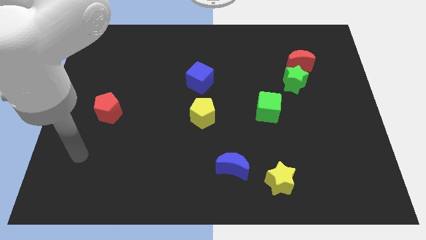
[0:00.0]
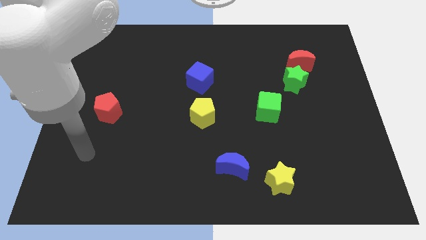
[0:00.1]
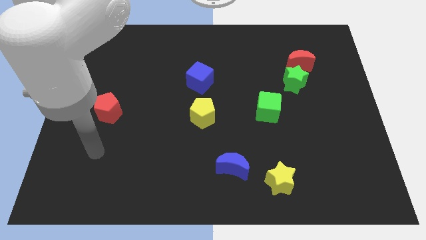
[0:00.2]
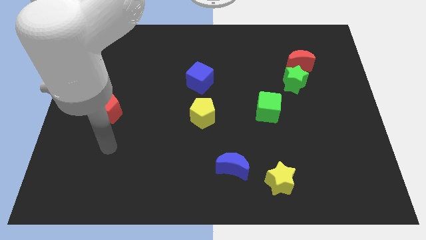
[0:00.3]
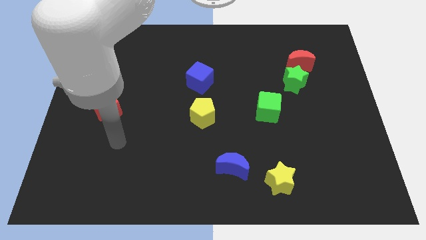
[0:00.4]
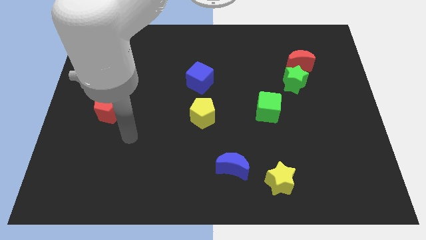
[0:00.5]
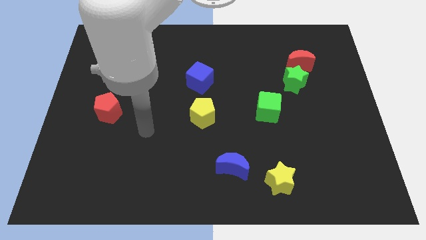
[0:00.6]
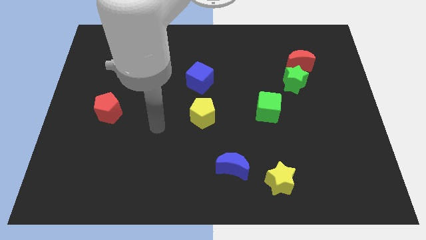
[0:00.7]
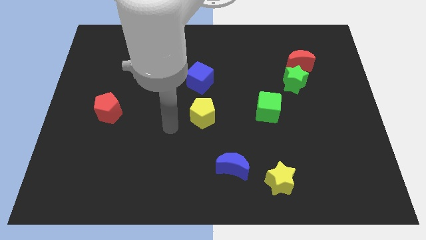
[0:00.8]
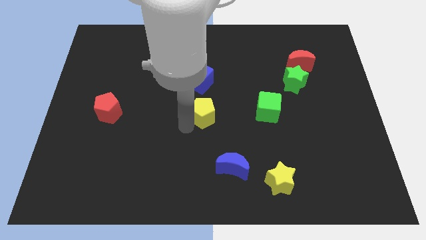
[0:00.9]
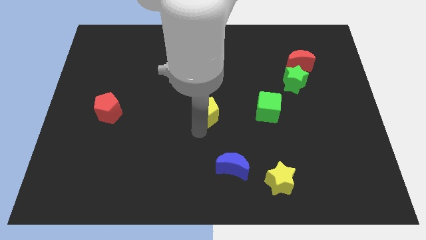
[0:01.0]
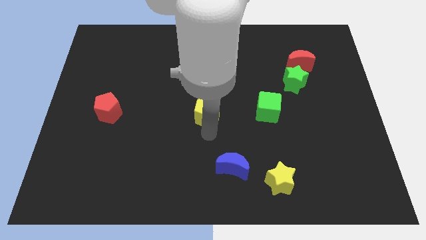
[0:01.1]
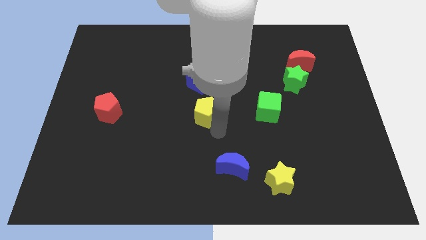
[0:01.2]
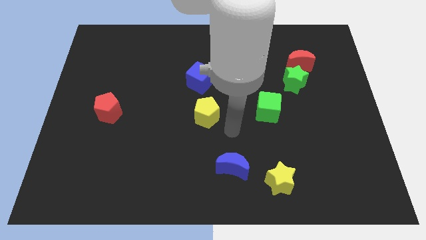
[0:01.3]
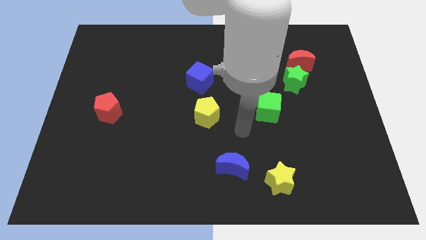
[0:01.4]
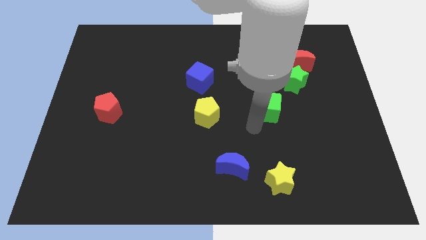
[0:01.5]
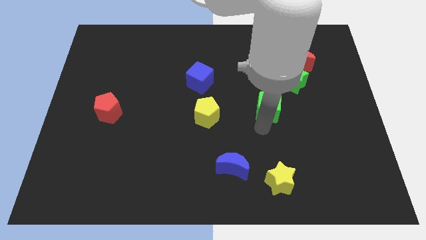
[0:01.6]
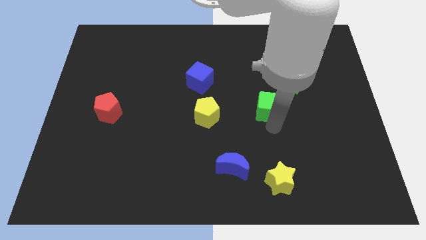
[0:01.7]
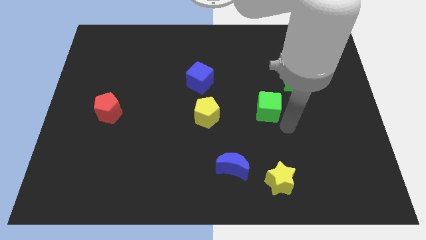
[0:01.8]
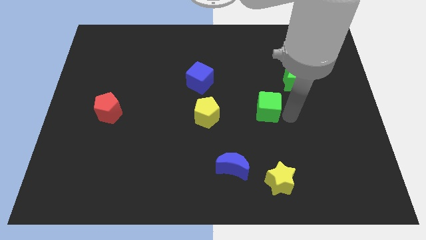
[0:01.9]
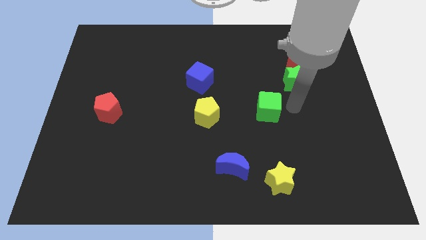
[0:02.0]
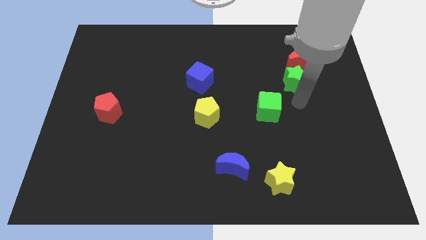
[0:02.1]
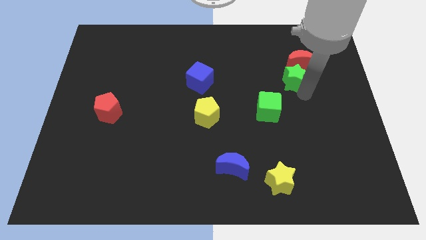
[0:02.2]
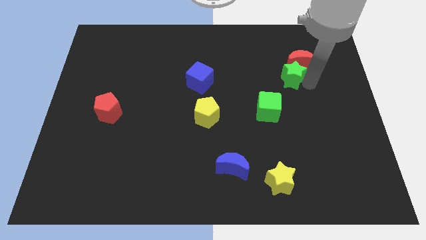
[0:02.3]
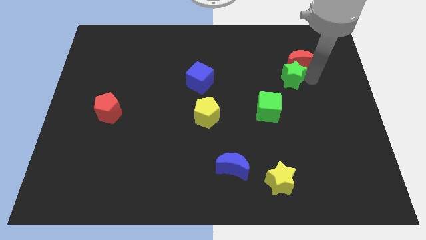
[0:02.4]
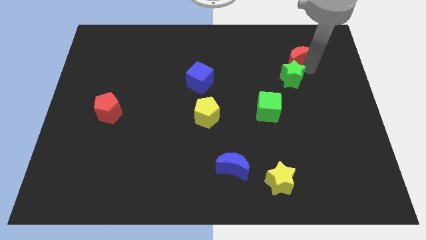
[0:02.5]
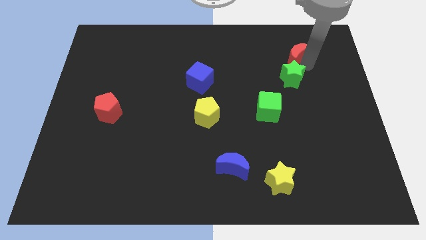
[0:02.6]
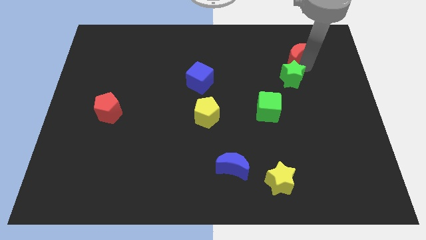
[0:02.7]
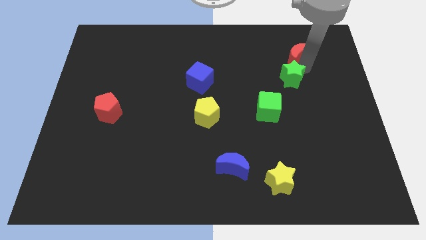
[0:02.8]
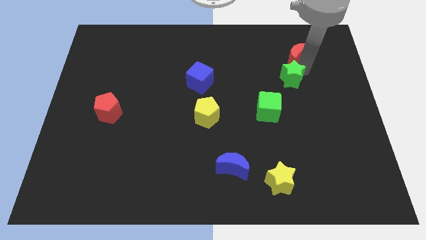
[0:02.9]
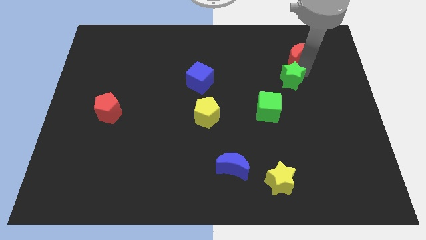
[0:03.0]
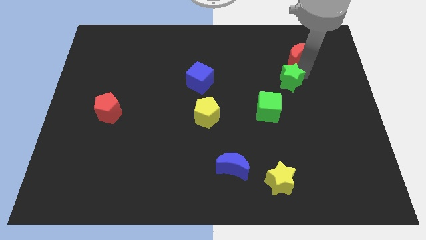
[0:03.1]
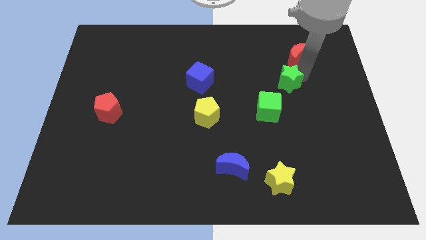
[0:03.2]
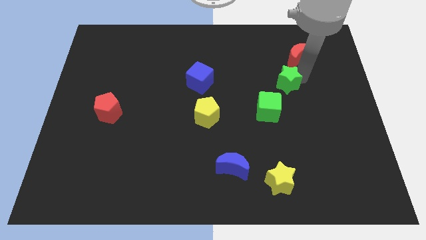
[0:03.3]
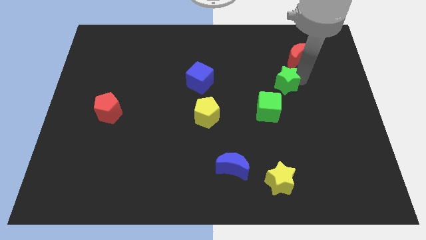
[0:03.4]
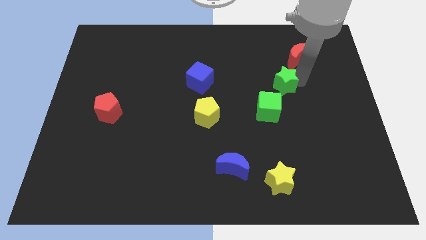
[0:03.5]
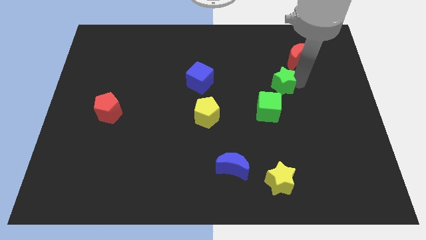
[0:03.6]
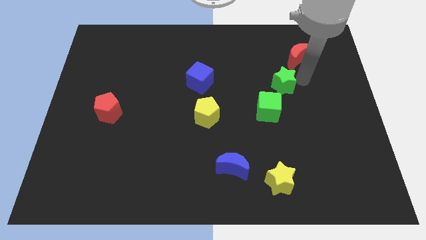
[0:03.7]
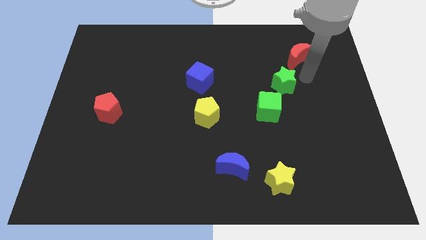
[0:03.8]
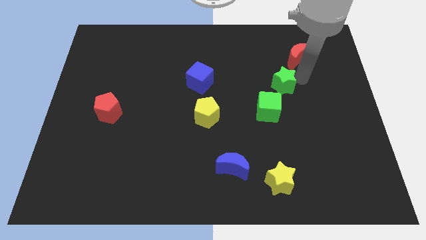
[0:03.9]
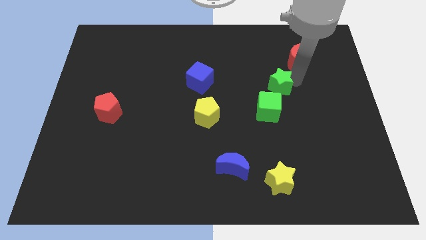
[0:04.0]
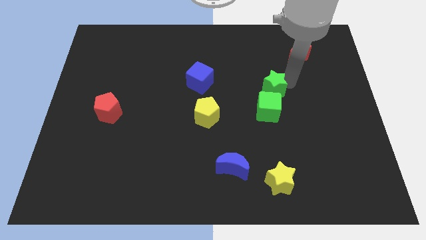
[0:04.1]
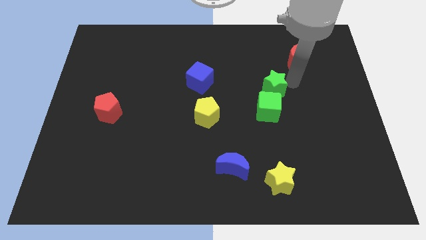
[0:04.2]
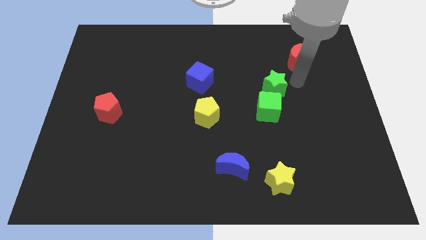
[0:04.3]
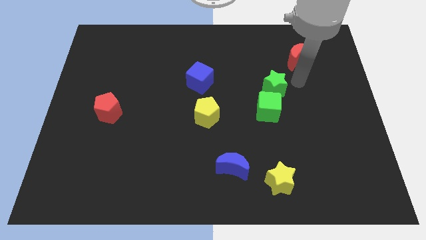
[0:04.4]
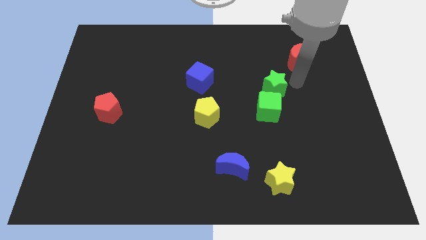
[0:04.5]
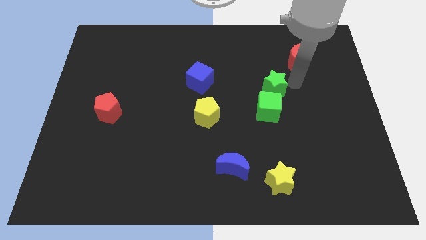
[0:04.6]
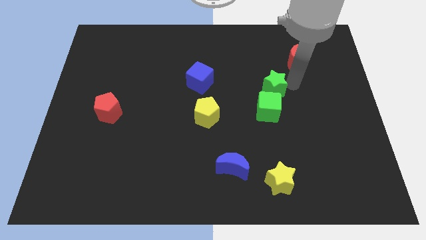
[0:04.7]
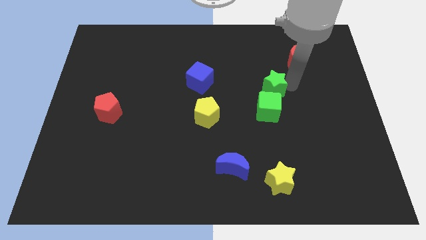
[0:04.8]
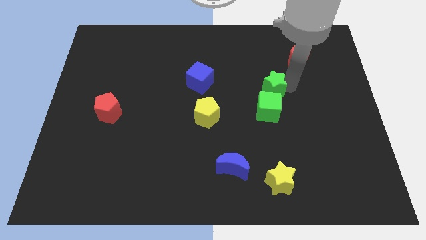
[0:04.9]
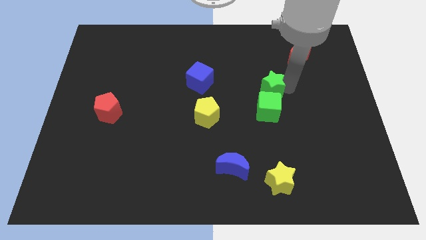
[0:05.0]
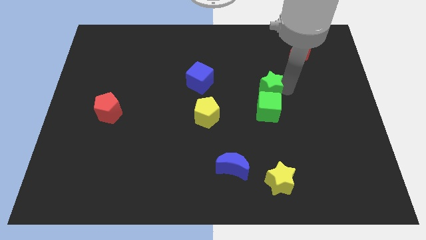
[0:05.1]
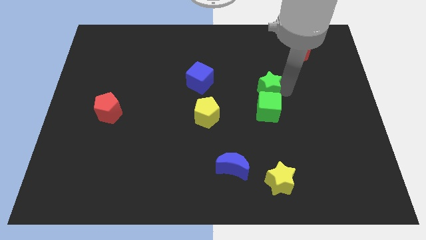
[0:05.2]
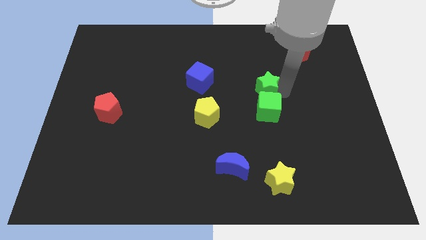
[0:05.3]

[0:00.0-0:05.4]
push the green star to the top left of the green cube
